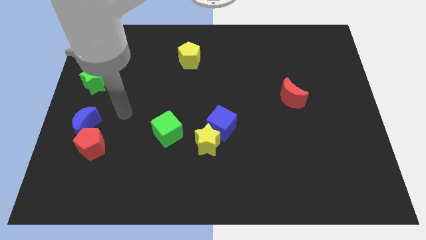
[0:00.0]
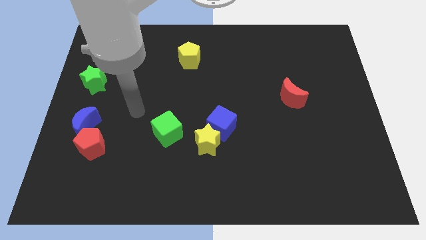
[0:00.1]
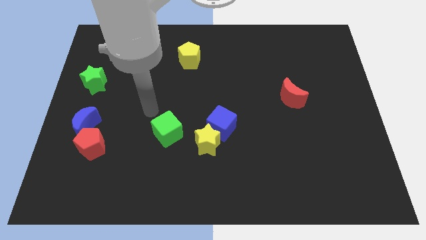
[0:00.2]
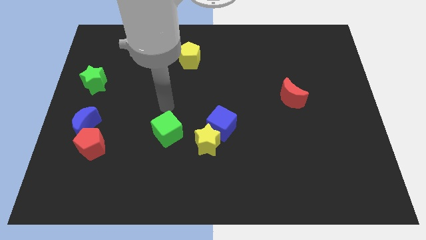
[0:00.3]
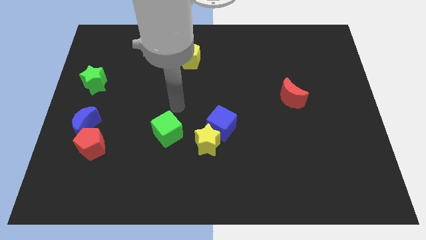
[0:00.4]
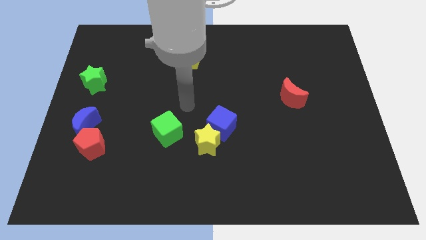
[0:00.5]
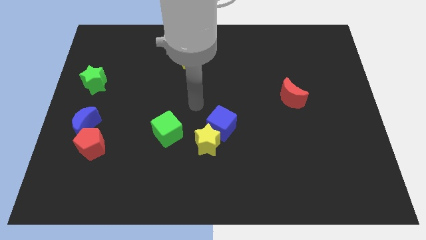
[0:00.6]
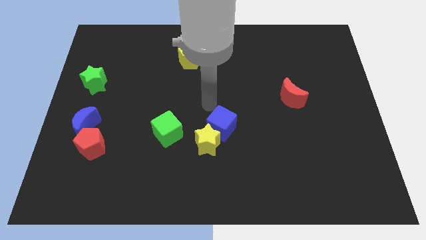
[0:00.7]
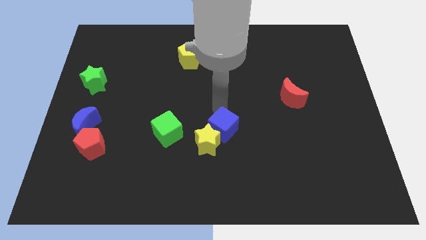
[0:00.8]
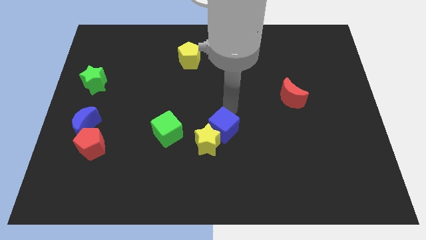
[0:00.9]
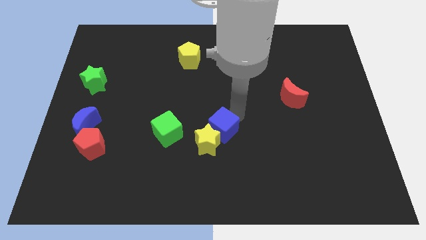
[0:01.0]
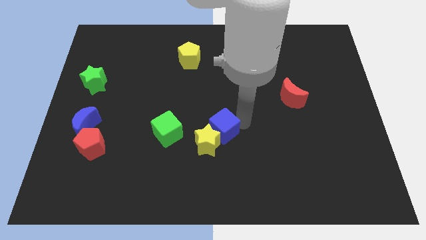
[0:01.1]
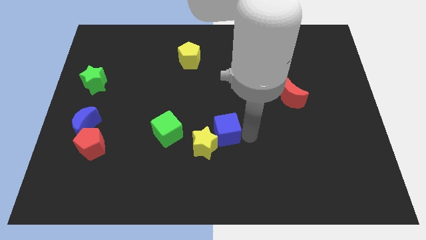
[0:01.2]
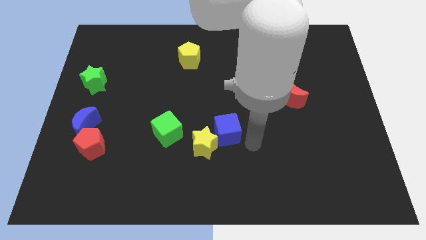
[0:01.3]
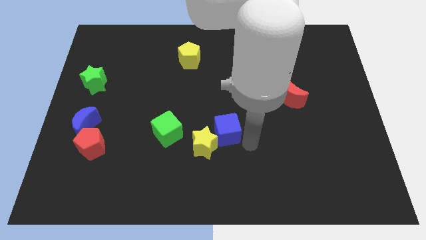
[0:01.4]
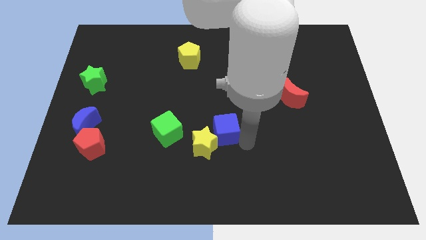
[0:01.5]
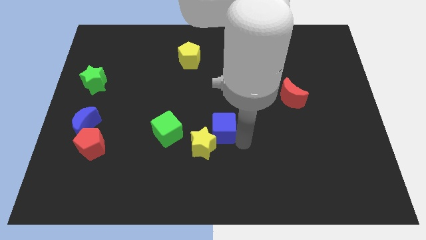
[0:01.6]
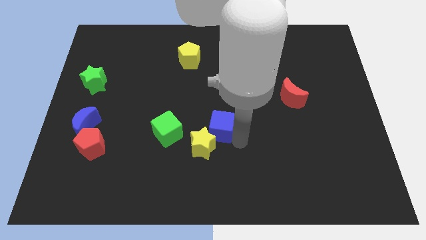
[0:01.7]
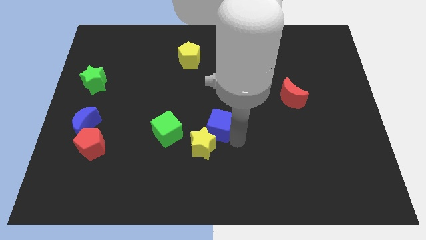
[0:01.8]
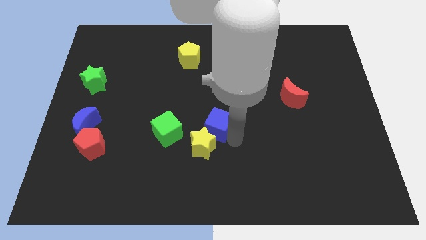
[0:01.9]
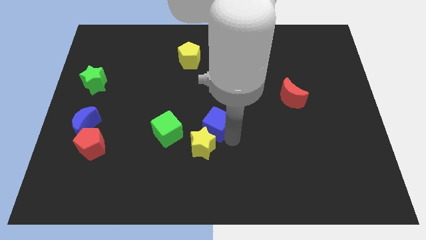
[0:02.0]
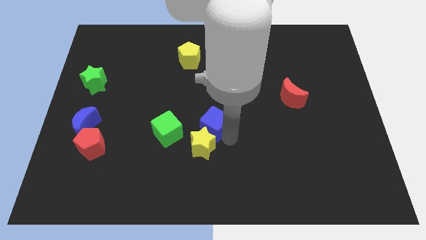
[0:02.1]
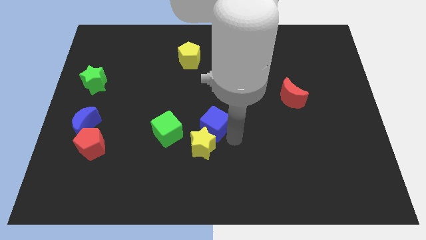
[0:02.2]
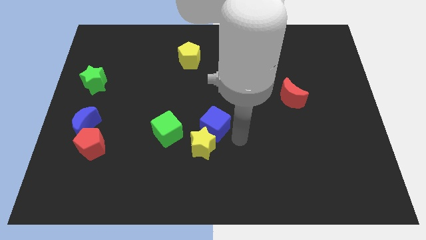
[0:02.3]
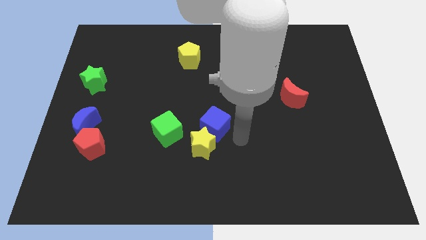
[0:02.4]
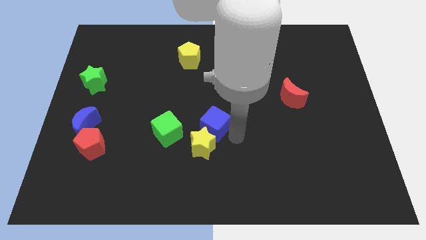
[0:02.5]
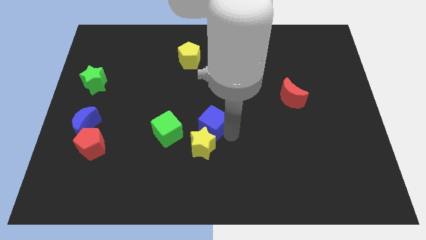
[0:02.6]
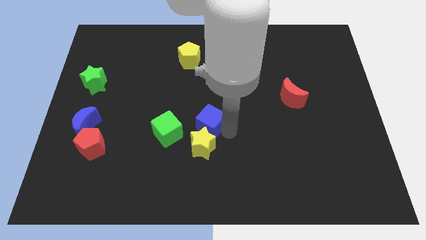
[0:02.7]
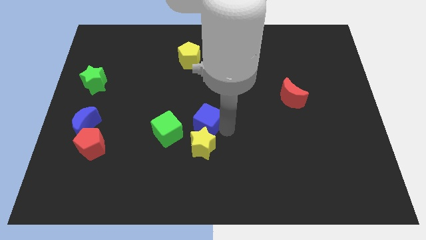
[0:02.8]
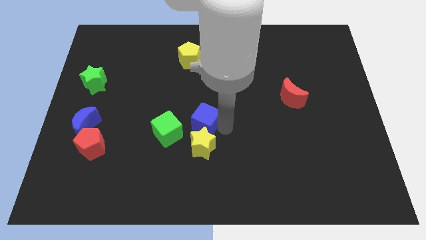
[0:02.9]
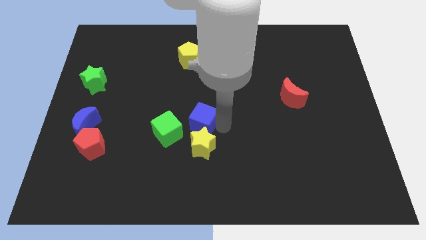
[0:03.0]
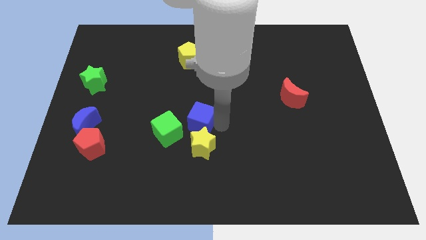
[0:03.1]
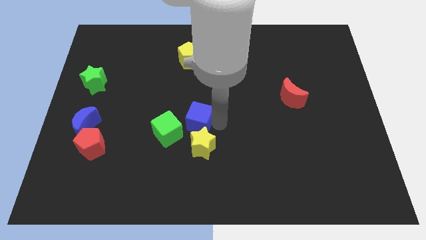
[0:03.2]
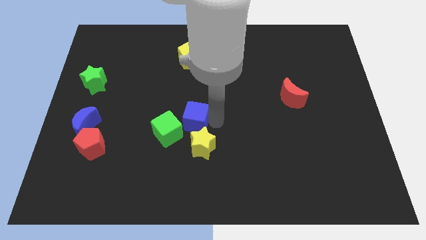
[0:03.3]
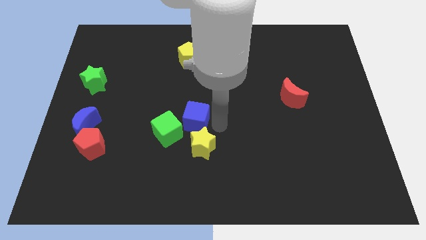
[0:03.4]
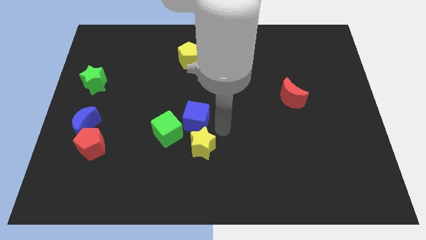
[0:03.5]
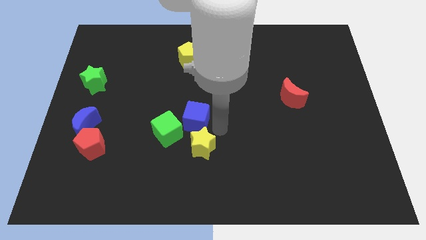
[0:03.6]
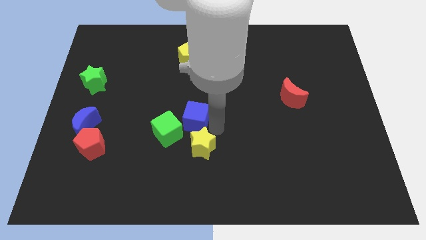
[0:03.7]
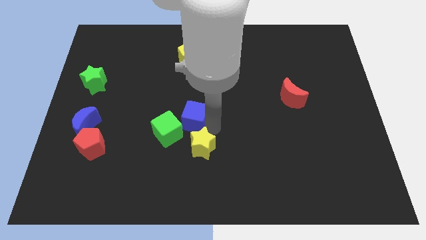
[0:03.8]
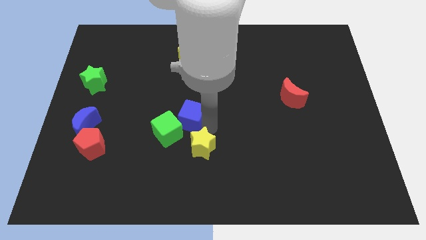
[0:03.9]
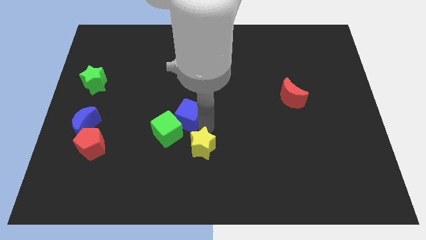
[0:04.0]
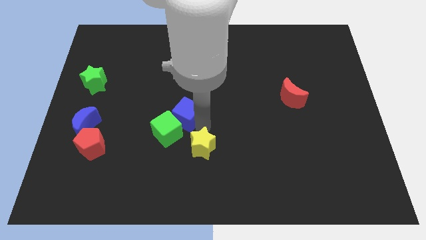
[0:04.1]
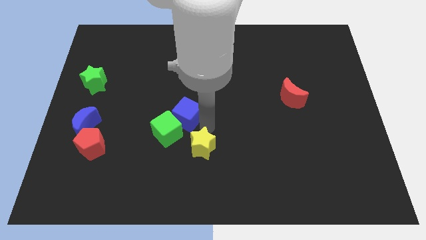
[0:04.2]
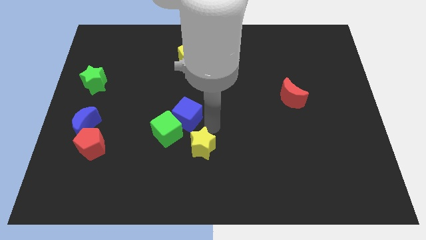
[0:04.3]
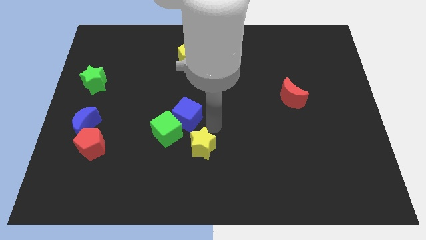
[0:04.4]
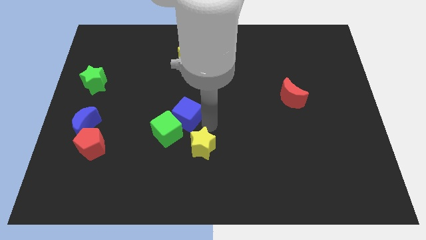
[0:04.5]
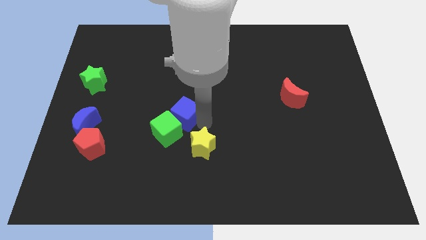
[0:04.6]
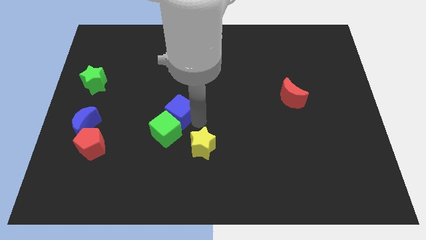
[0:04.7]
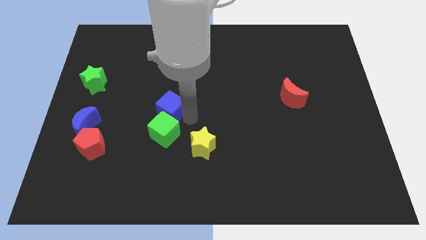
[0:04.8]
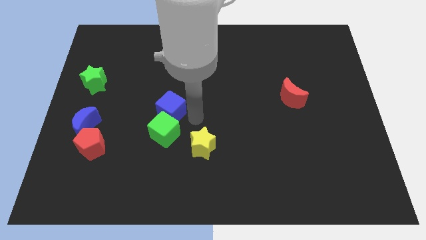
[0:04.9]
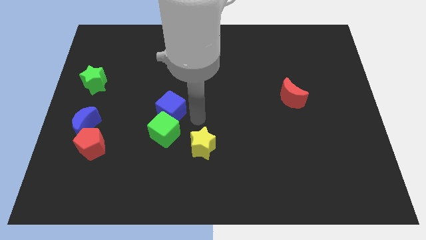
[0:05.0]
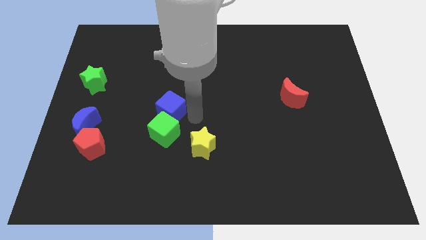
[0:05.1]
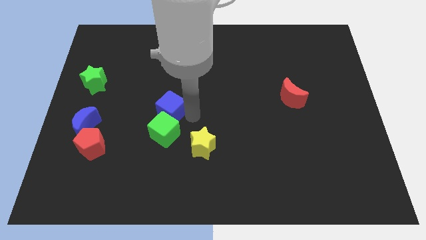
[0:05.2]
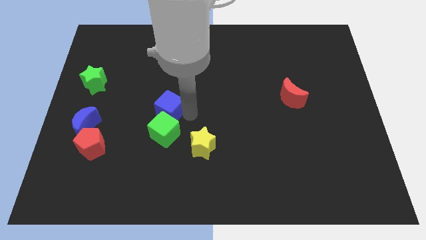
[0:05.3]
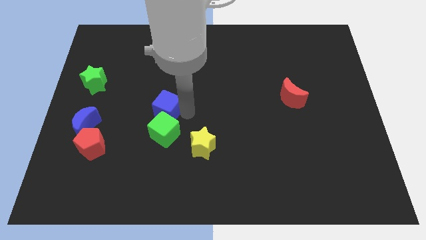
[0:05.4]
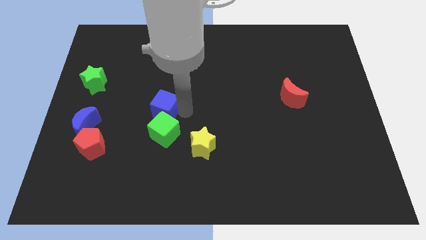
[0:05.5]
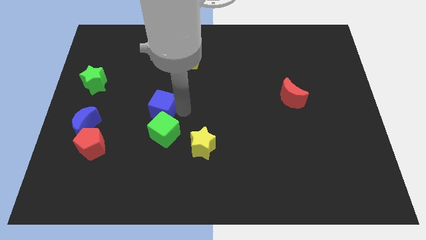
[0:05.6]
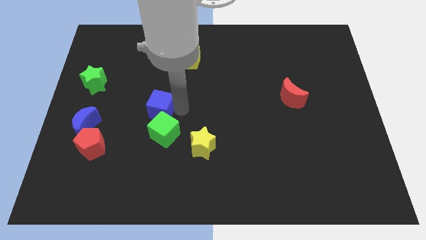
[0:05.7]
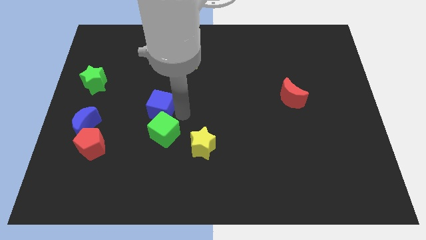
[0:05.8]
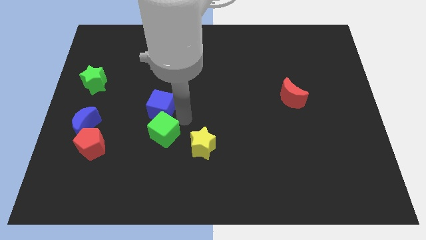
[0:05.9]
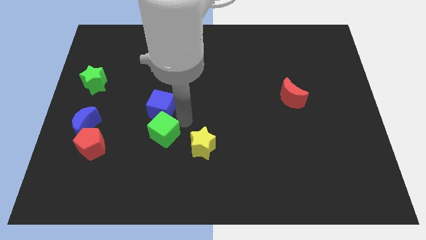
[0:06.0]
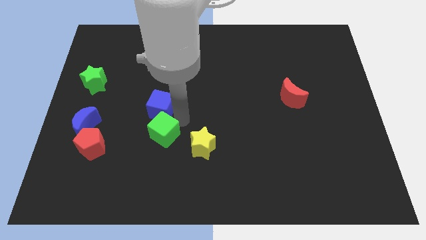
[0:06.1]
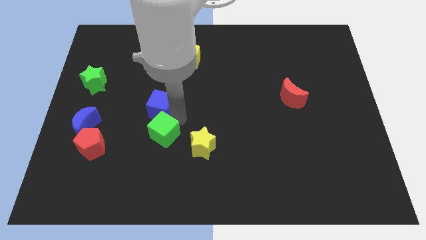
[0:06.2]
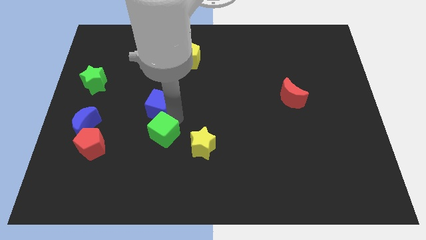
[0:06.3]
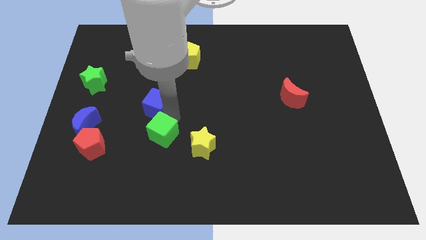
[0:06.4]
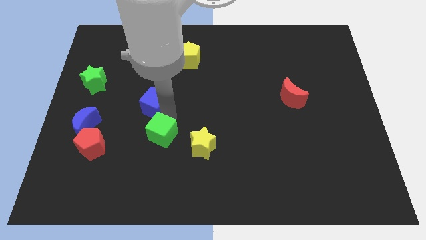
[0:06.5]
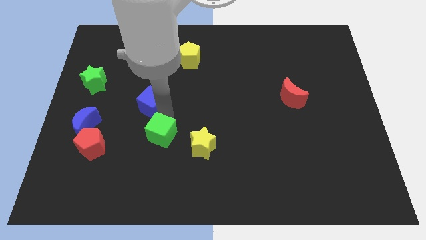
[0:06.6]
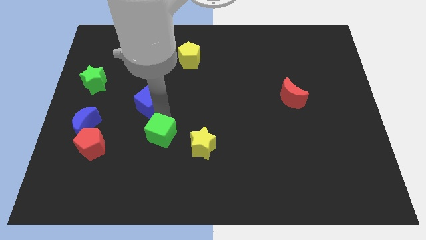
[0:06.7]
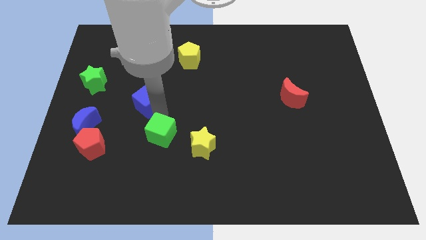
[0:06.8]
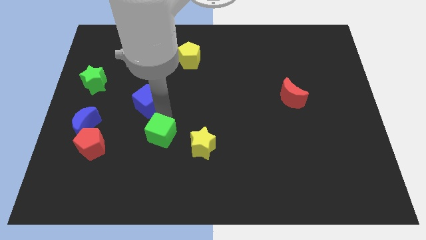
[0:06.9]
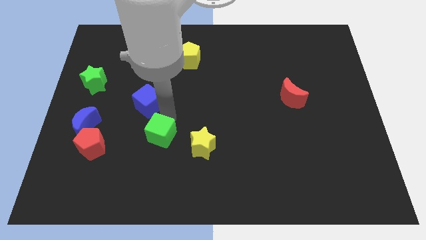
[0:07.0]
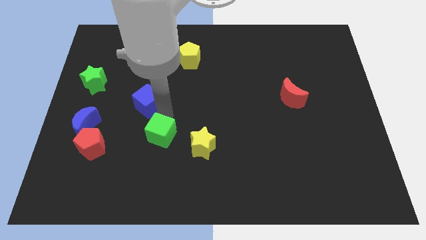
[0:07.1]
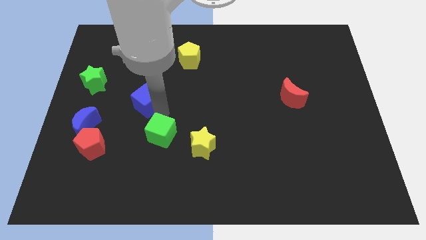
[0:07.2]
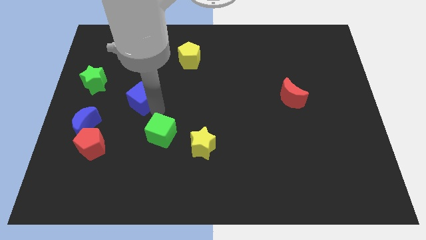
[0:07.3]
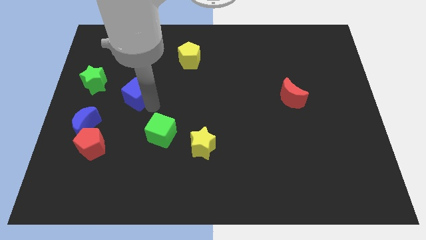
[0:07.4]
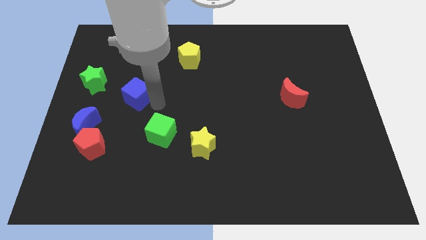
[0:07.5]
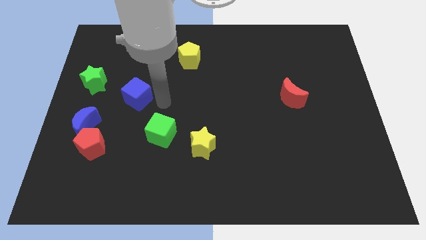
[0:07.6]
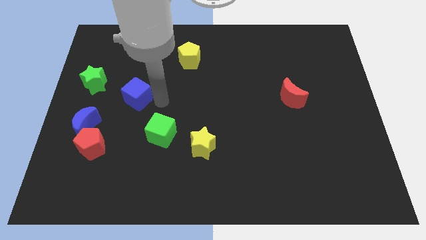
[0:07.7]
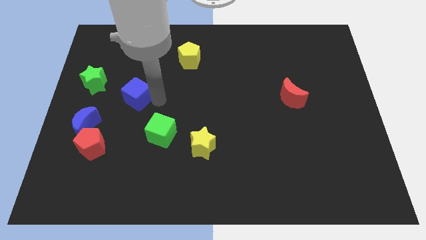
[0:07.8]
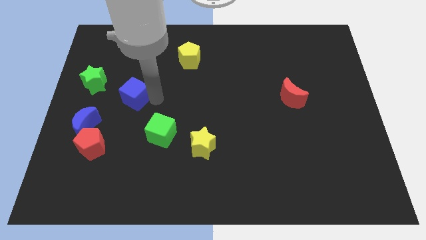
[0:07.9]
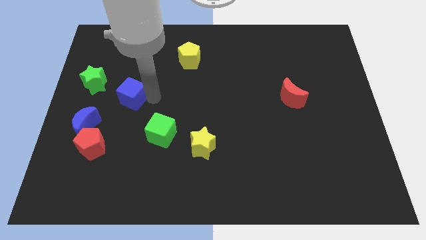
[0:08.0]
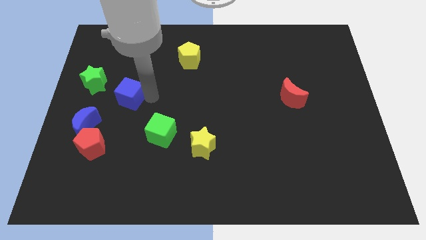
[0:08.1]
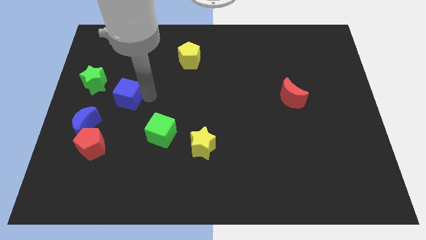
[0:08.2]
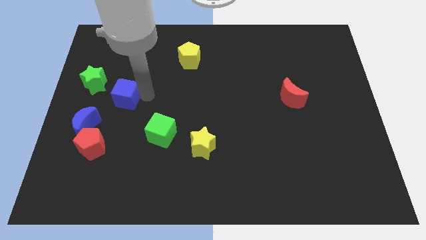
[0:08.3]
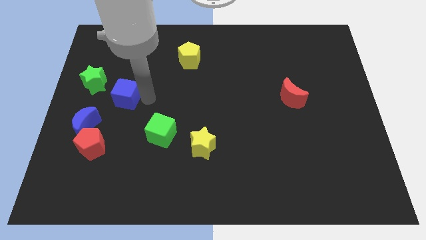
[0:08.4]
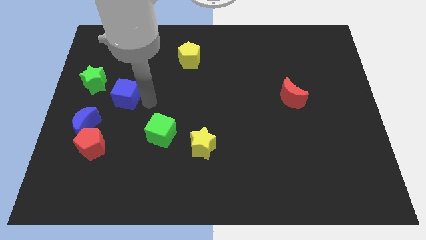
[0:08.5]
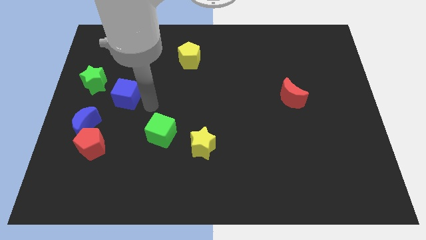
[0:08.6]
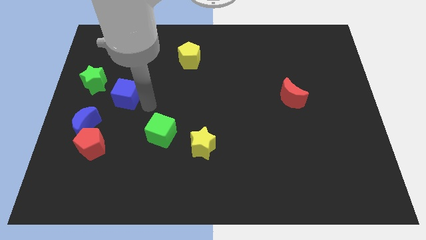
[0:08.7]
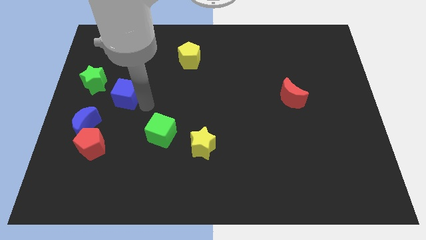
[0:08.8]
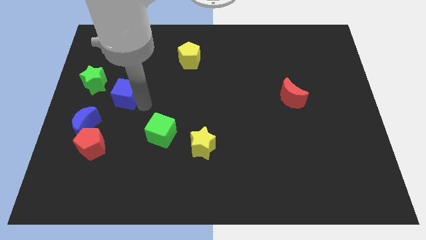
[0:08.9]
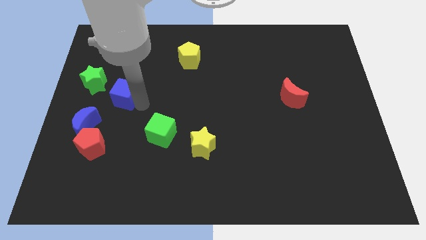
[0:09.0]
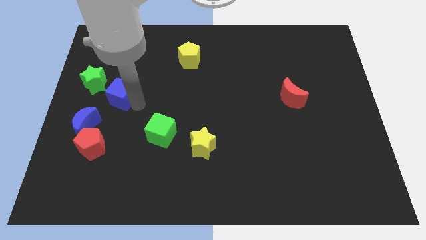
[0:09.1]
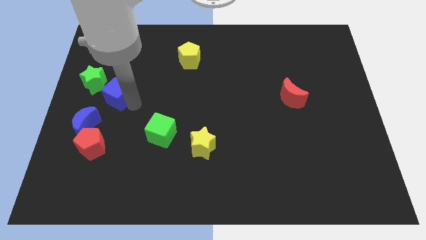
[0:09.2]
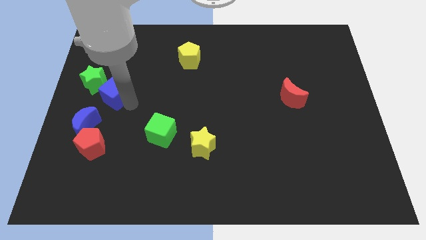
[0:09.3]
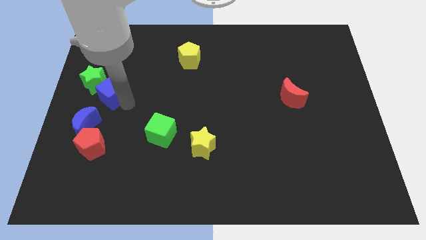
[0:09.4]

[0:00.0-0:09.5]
push the blue cube to the green star
